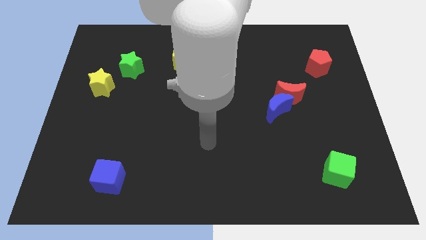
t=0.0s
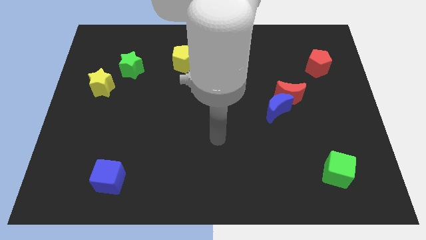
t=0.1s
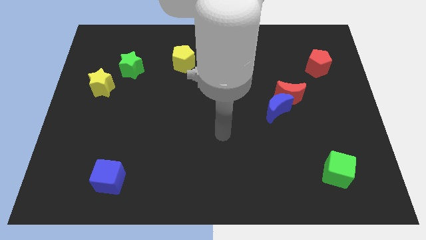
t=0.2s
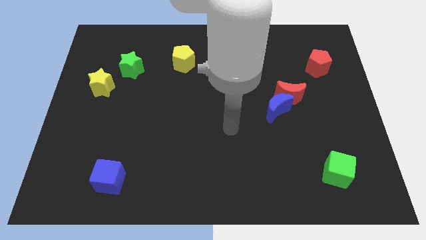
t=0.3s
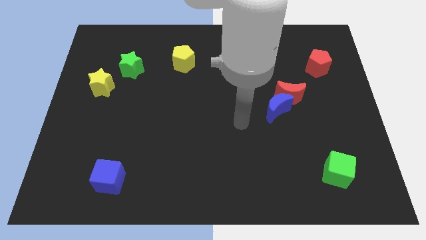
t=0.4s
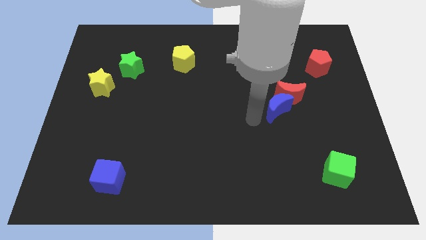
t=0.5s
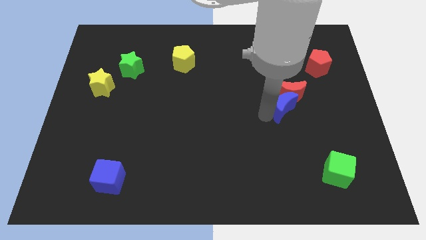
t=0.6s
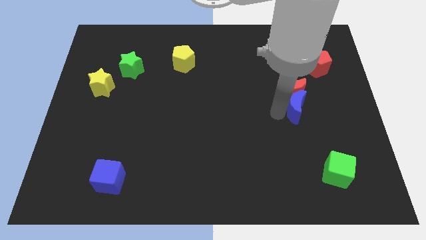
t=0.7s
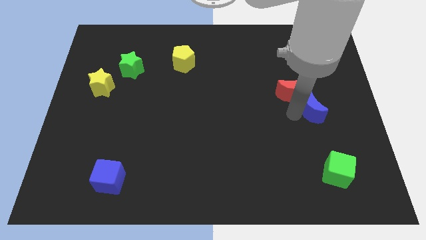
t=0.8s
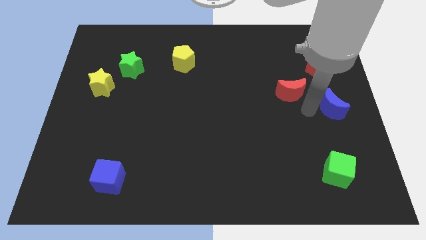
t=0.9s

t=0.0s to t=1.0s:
move the red moon away from the blue moon

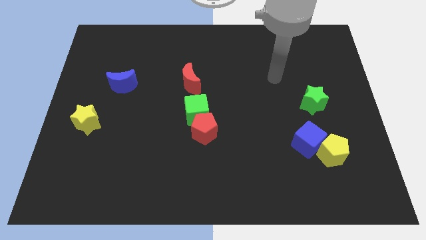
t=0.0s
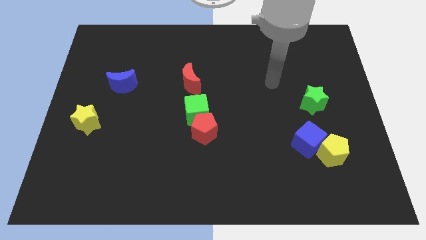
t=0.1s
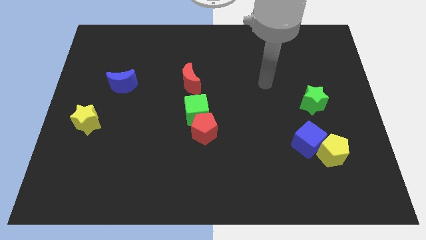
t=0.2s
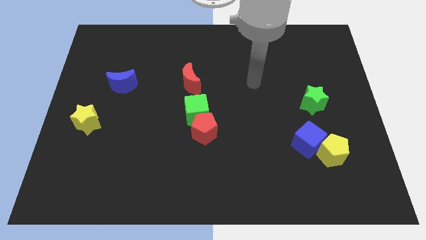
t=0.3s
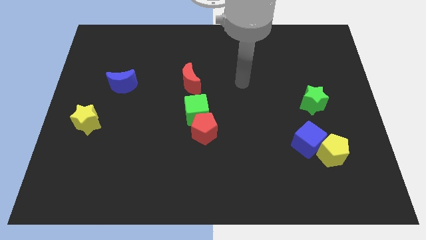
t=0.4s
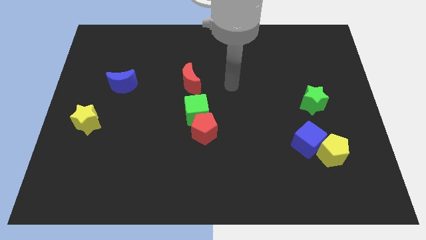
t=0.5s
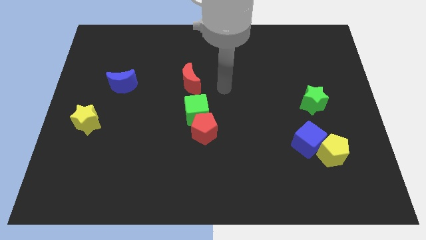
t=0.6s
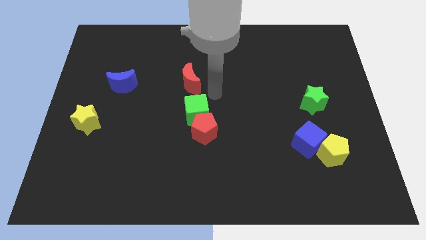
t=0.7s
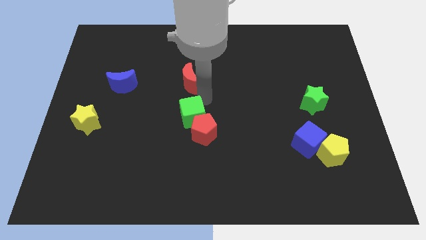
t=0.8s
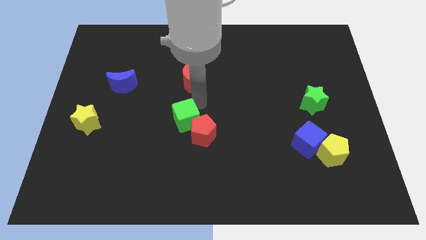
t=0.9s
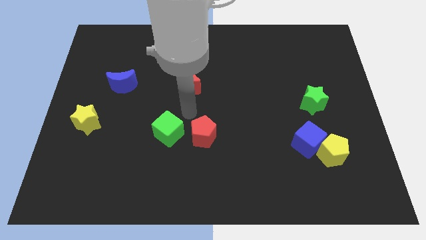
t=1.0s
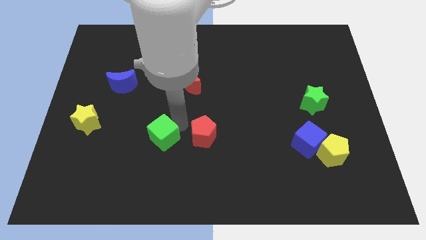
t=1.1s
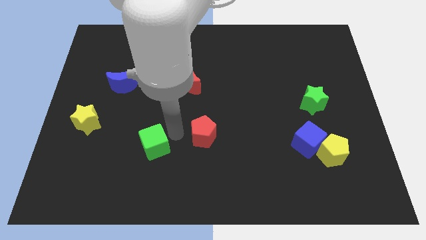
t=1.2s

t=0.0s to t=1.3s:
pull the red pentagon apart from the green cube

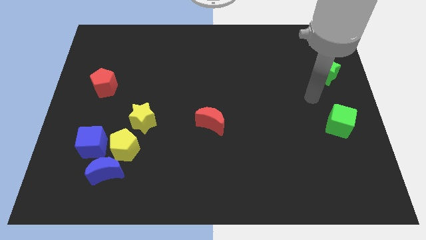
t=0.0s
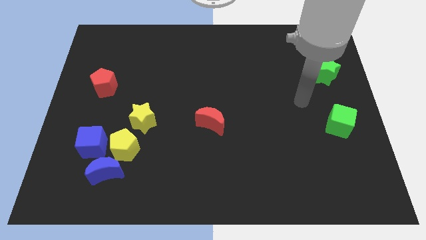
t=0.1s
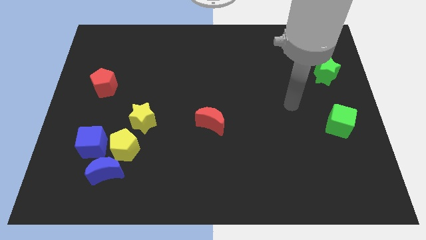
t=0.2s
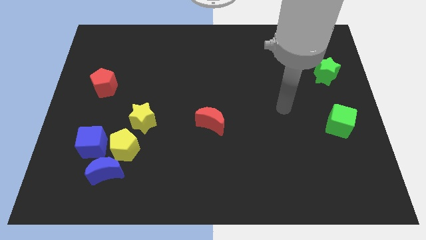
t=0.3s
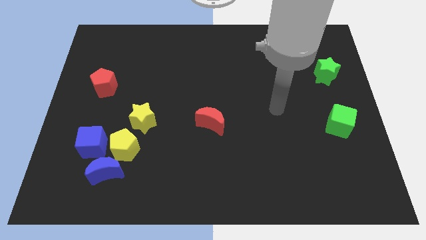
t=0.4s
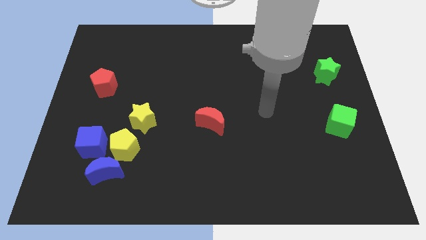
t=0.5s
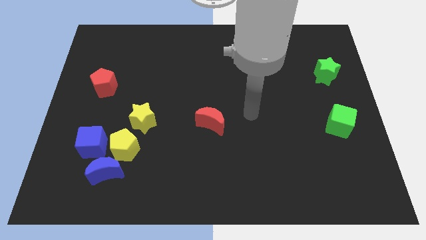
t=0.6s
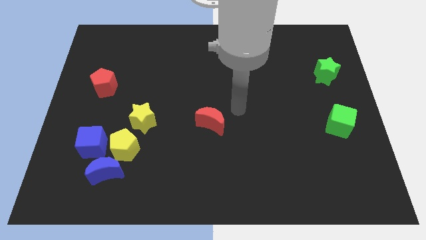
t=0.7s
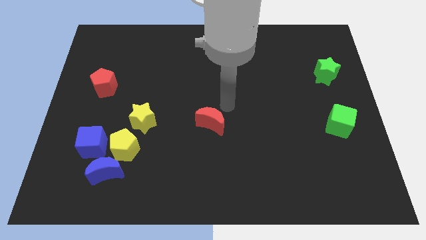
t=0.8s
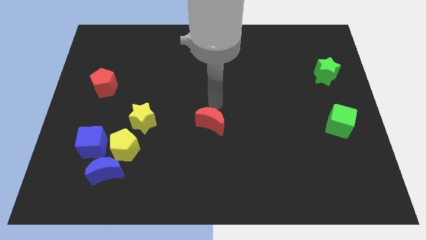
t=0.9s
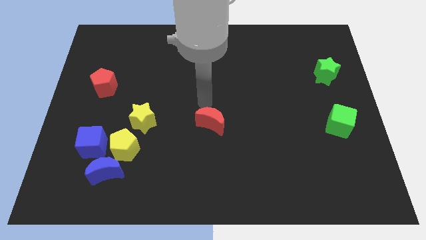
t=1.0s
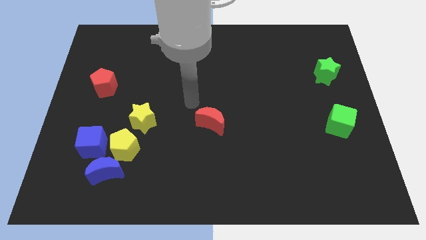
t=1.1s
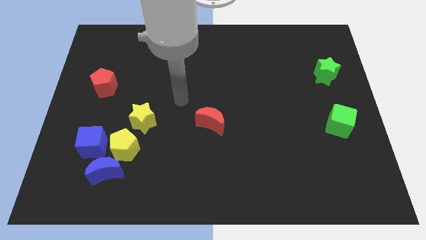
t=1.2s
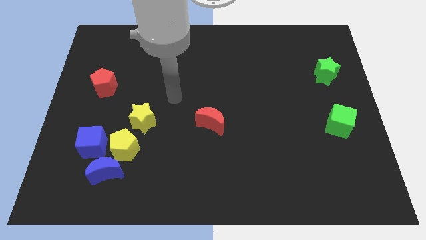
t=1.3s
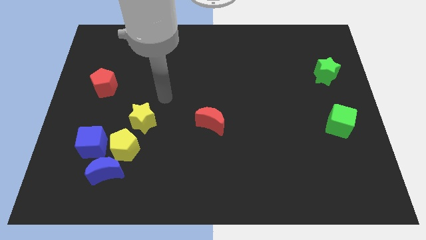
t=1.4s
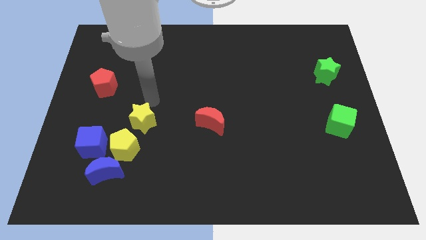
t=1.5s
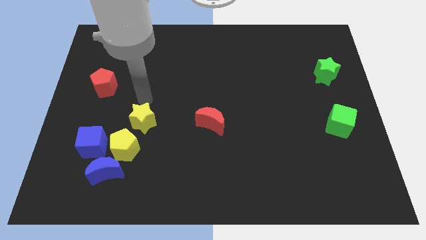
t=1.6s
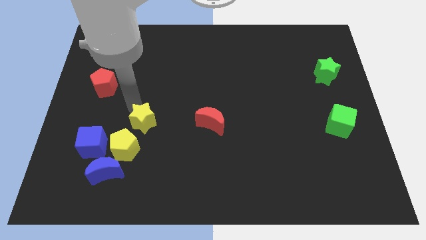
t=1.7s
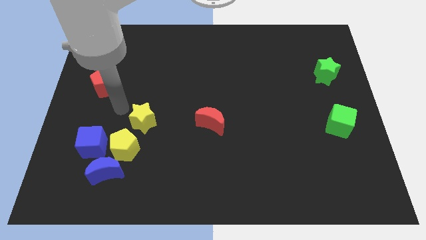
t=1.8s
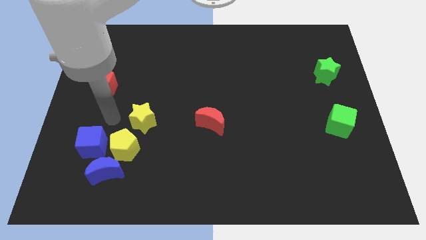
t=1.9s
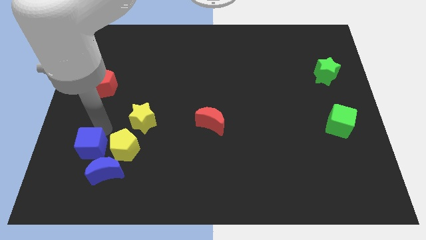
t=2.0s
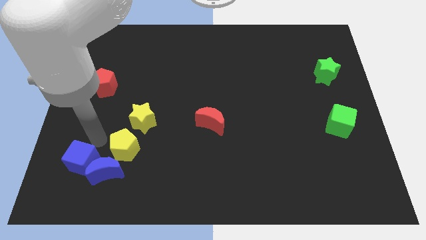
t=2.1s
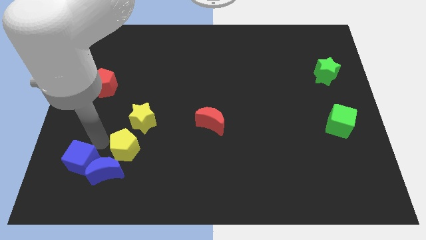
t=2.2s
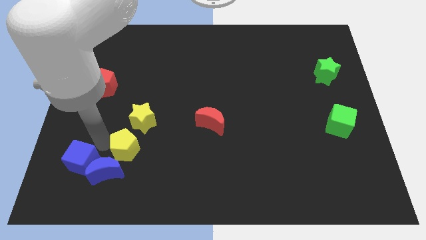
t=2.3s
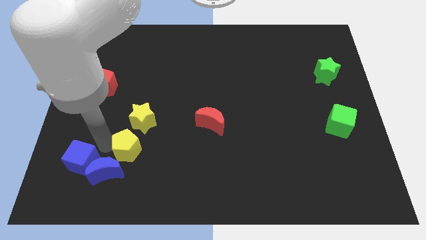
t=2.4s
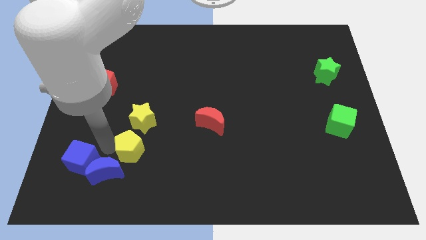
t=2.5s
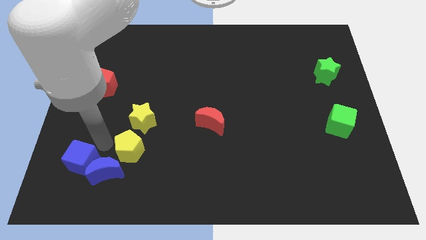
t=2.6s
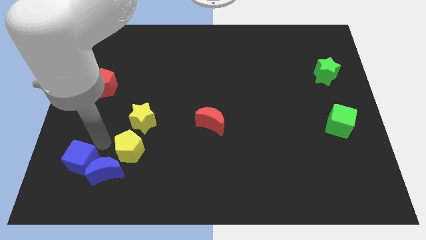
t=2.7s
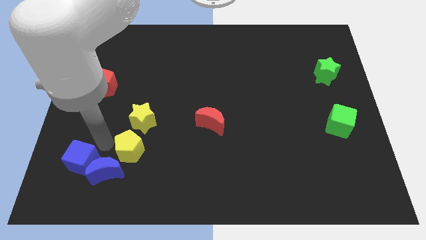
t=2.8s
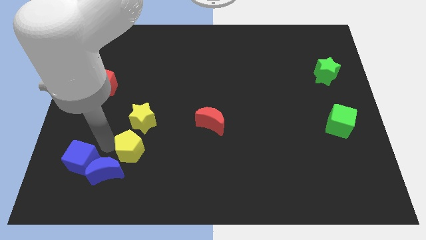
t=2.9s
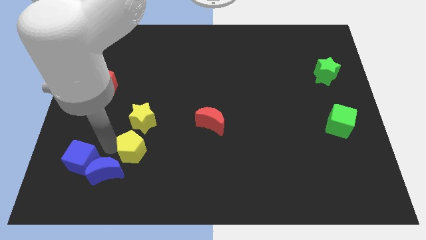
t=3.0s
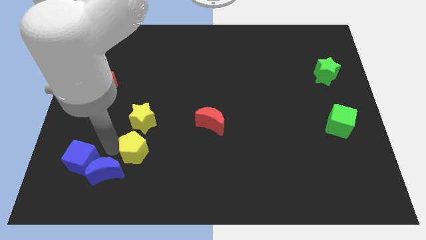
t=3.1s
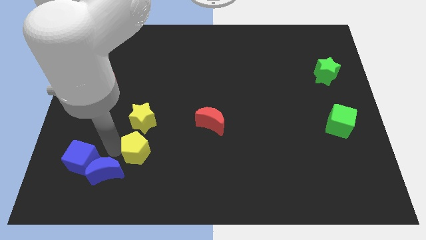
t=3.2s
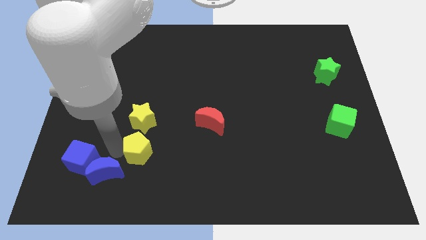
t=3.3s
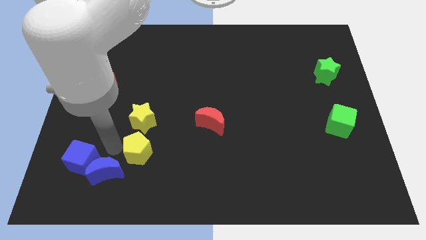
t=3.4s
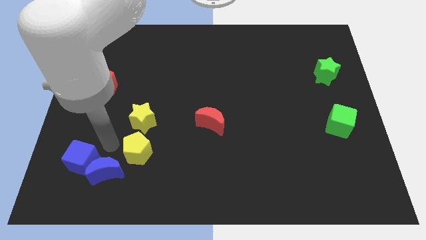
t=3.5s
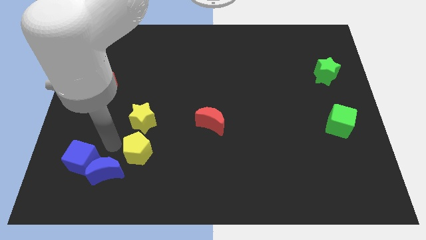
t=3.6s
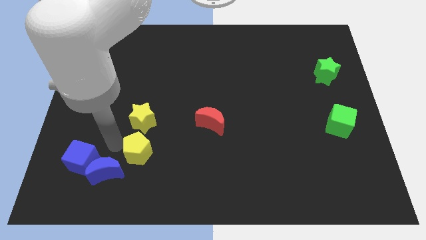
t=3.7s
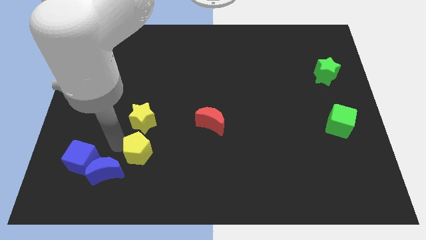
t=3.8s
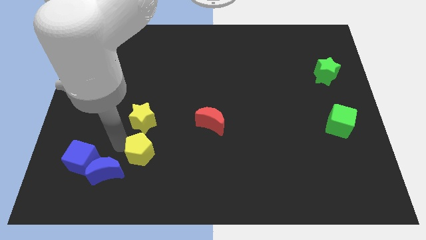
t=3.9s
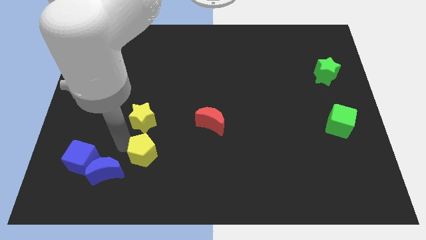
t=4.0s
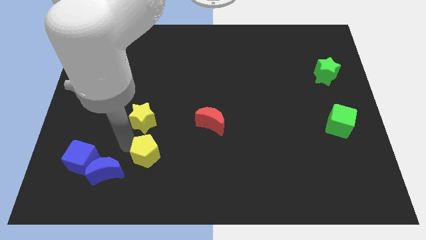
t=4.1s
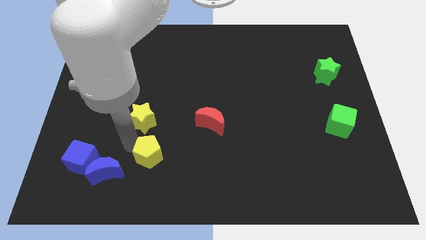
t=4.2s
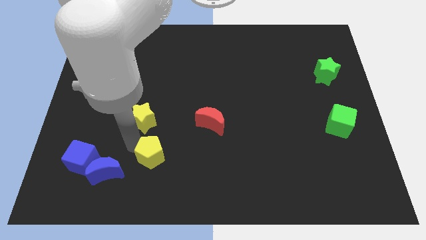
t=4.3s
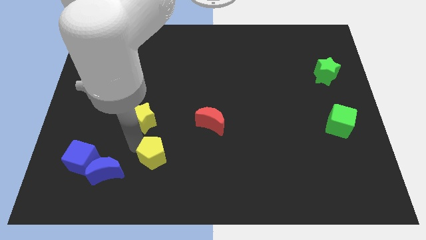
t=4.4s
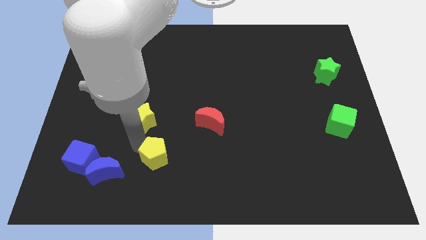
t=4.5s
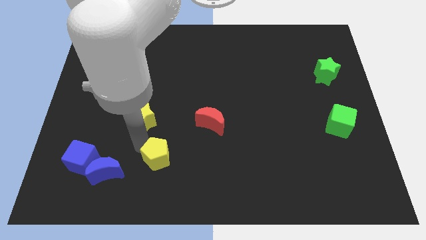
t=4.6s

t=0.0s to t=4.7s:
pull the yellow pentagon apart from the blue moon, blue cube, and yellow star

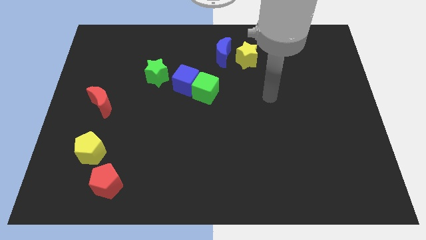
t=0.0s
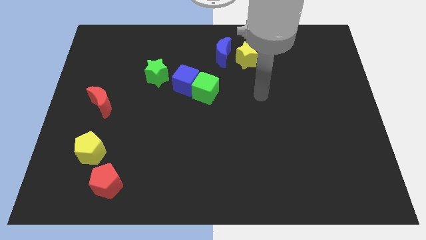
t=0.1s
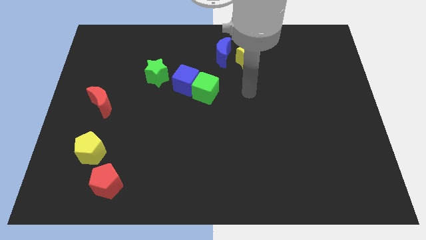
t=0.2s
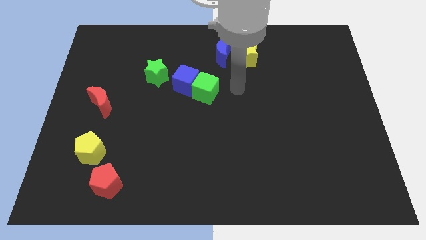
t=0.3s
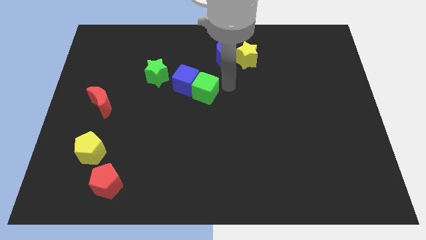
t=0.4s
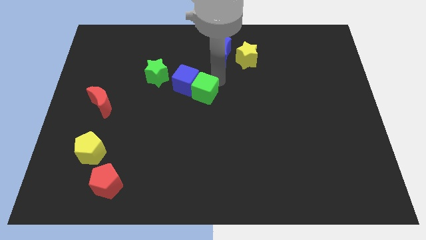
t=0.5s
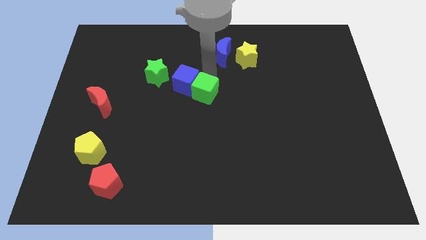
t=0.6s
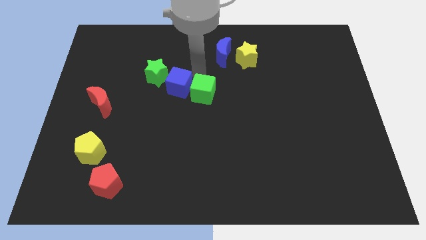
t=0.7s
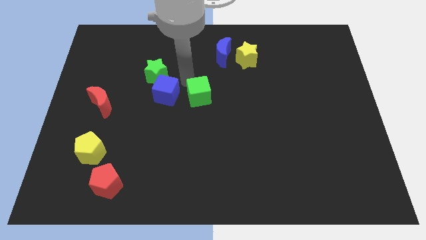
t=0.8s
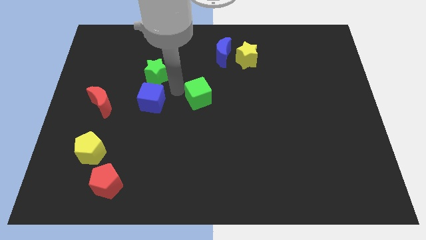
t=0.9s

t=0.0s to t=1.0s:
pull the green cube apart from the blue cube

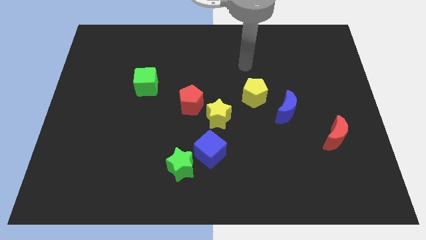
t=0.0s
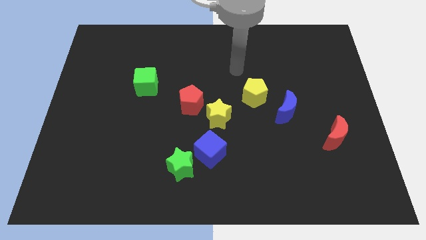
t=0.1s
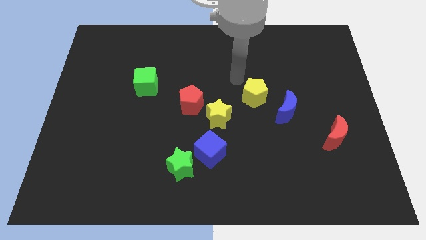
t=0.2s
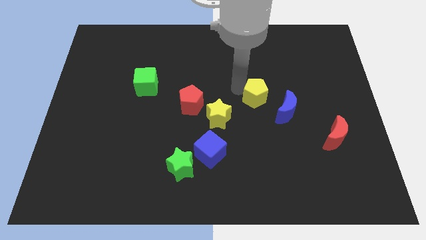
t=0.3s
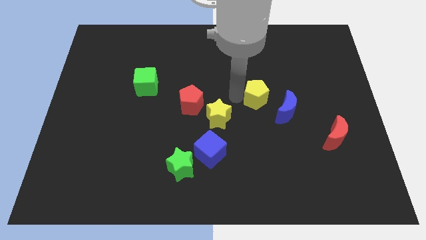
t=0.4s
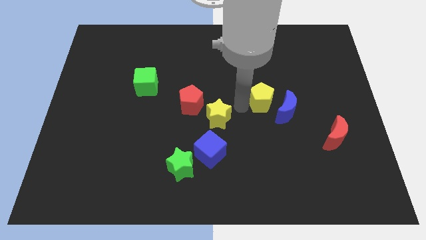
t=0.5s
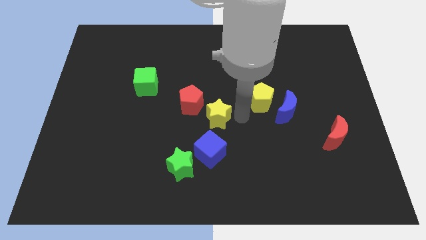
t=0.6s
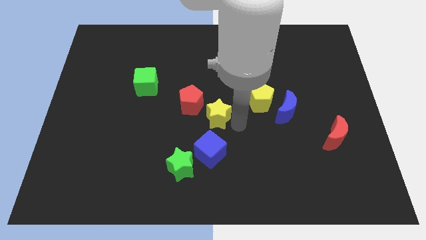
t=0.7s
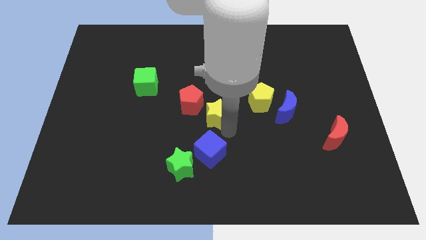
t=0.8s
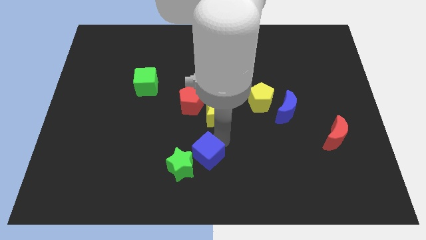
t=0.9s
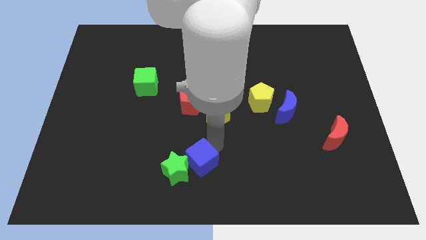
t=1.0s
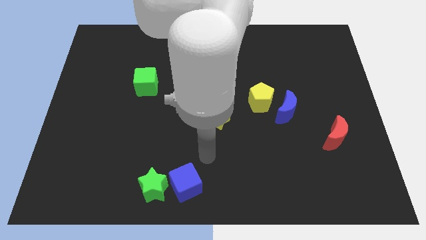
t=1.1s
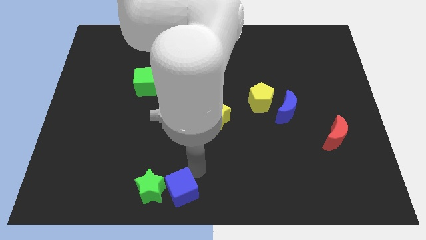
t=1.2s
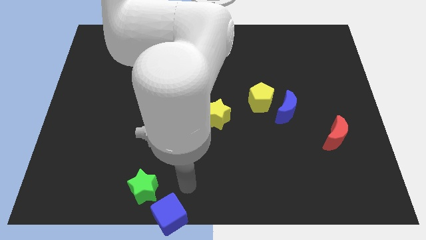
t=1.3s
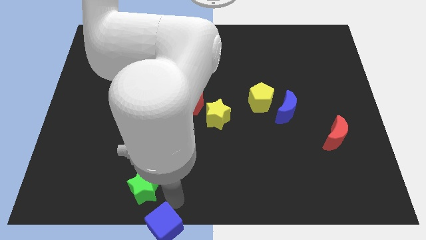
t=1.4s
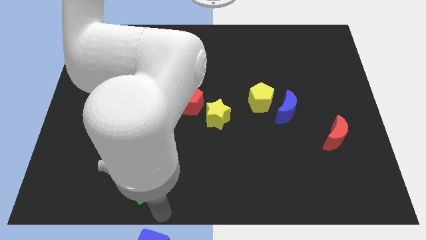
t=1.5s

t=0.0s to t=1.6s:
pull the green star apart from the blue cube
